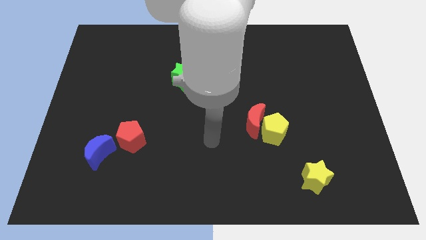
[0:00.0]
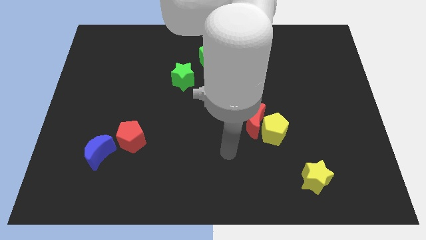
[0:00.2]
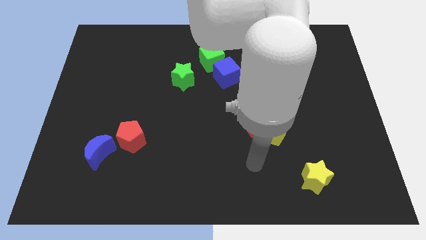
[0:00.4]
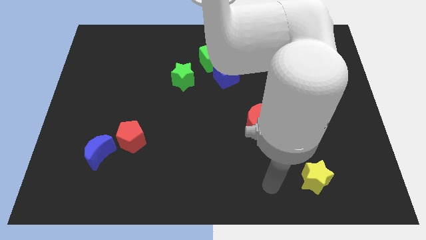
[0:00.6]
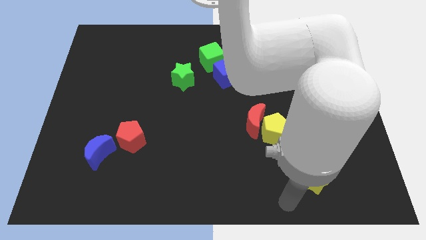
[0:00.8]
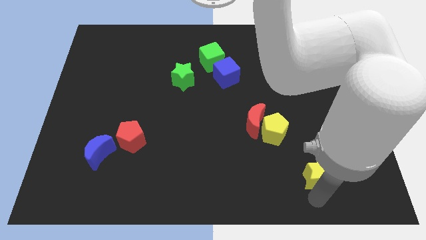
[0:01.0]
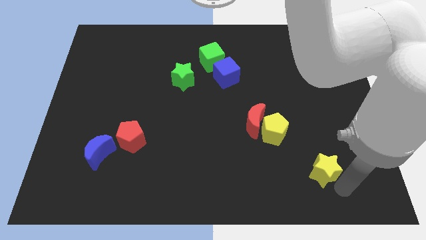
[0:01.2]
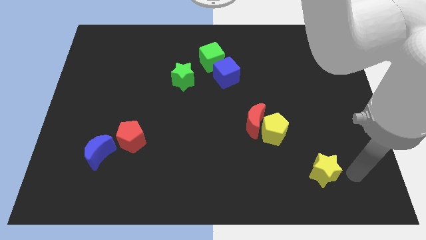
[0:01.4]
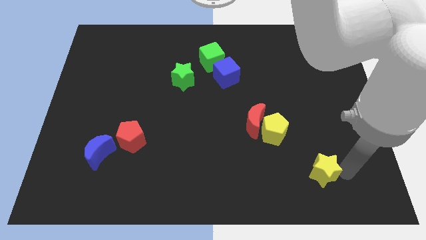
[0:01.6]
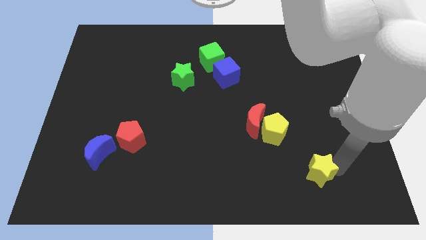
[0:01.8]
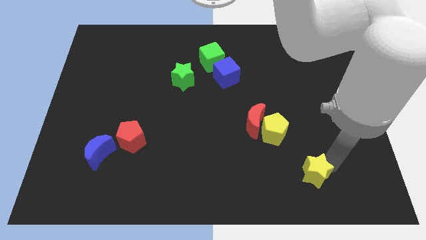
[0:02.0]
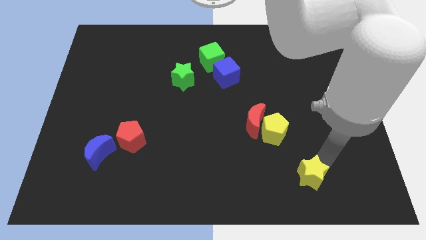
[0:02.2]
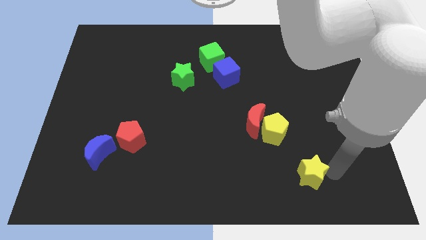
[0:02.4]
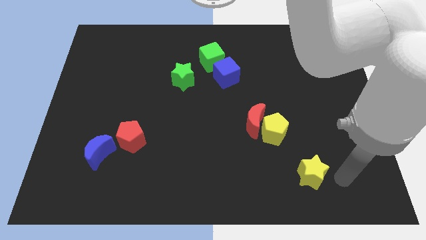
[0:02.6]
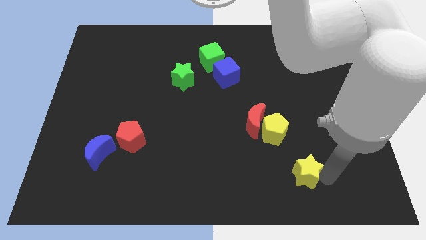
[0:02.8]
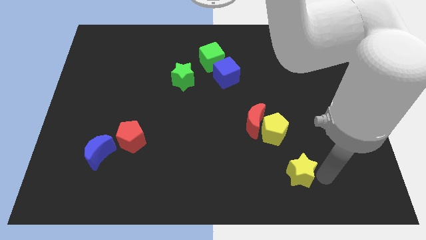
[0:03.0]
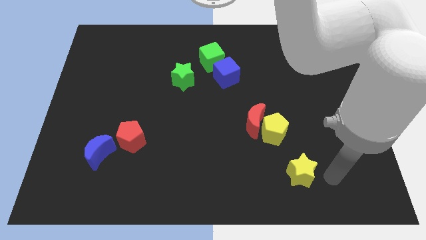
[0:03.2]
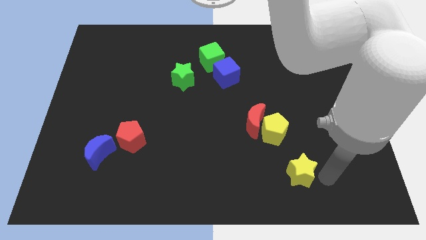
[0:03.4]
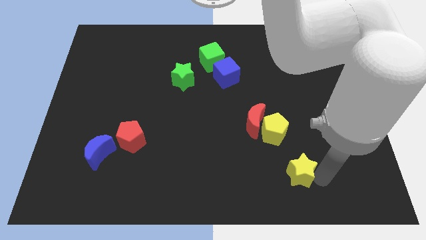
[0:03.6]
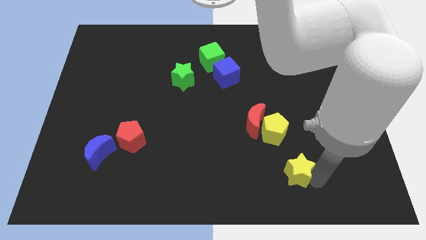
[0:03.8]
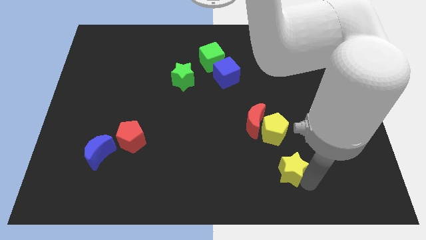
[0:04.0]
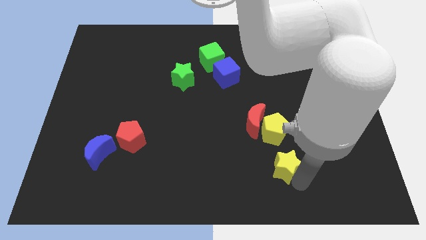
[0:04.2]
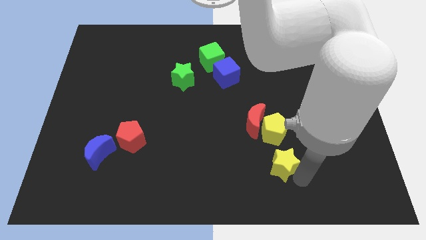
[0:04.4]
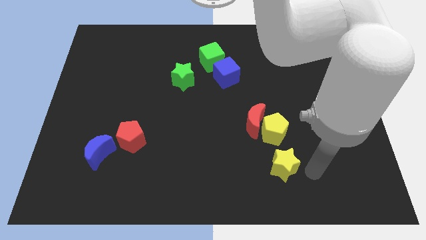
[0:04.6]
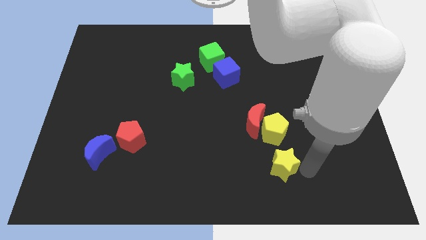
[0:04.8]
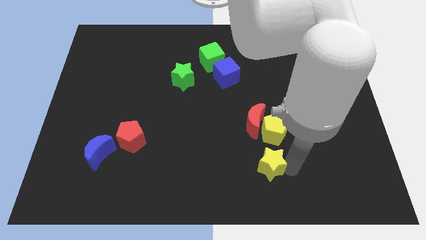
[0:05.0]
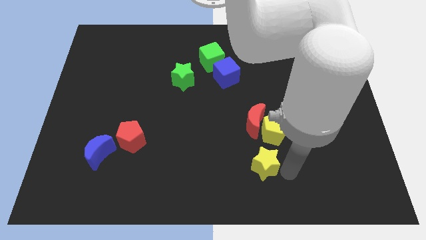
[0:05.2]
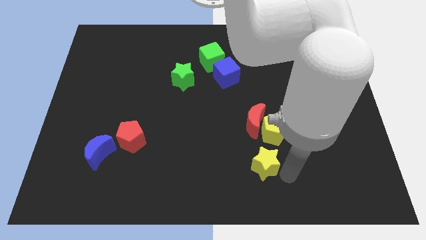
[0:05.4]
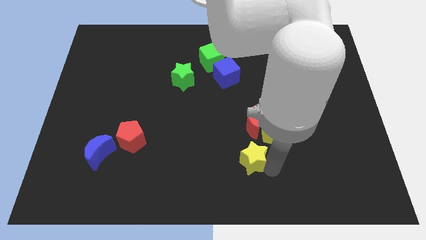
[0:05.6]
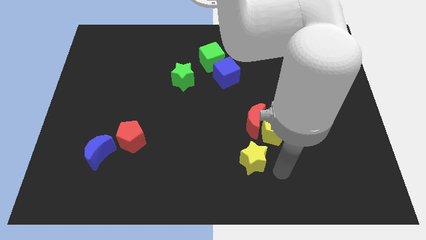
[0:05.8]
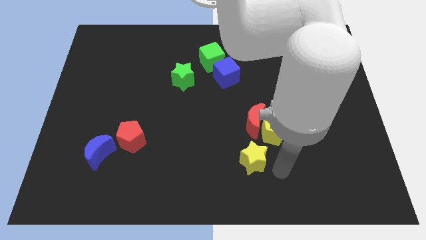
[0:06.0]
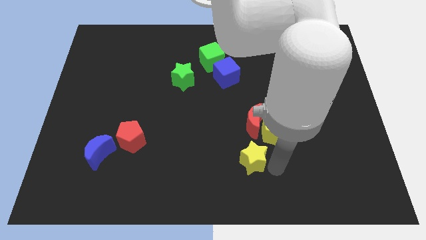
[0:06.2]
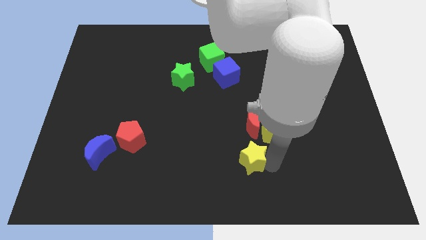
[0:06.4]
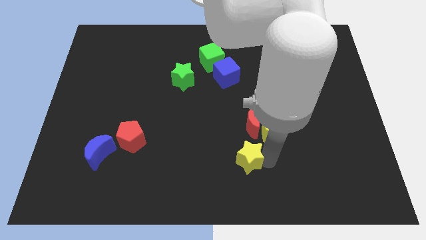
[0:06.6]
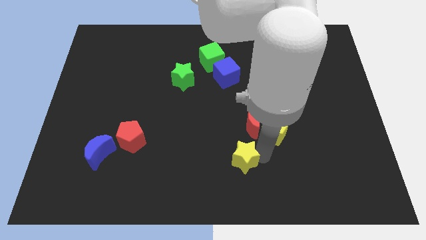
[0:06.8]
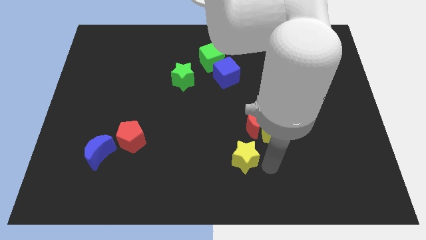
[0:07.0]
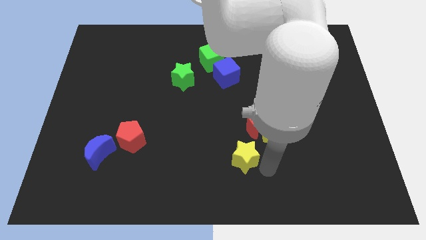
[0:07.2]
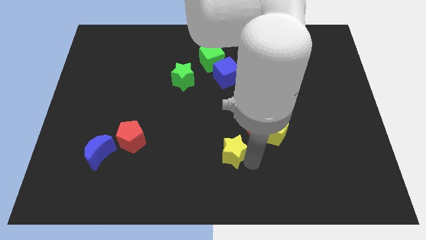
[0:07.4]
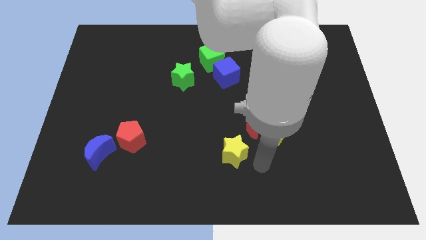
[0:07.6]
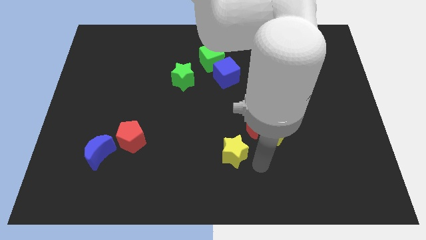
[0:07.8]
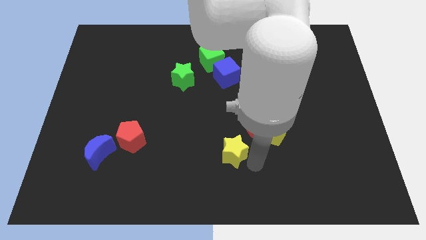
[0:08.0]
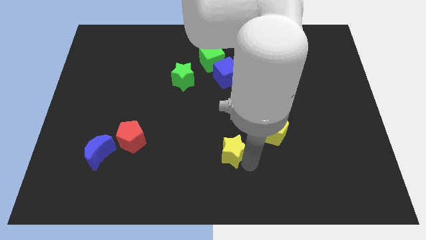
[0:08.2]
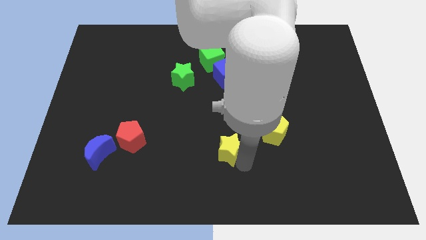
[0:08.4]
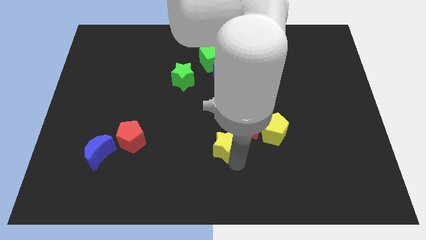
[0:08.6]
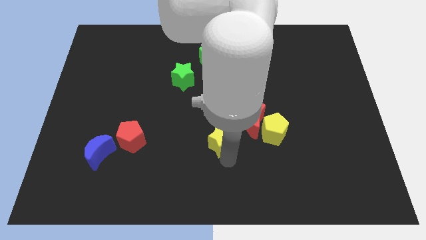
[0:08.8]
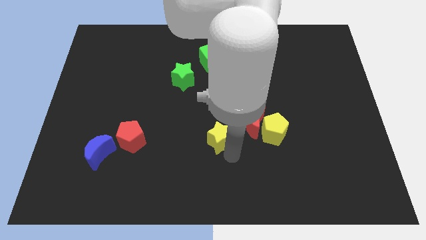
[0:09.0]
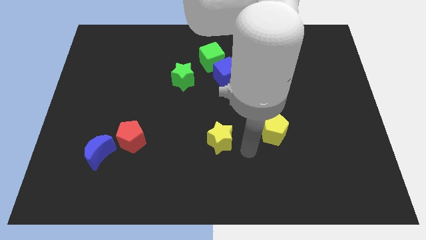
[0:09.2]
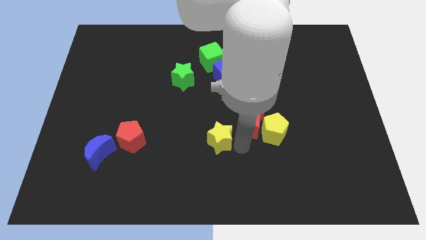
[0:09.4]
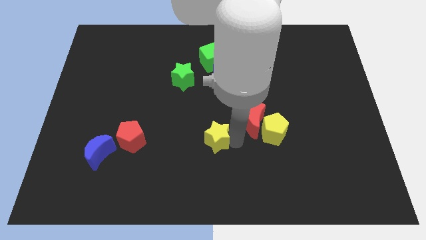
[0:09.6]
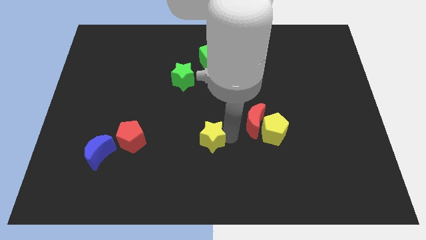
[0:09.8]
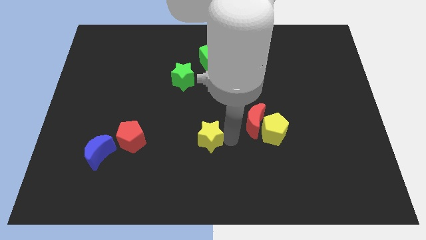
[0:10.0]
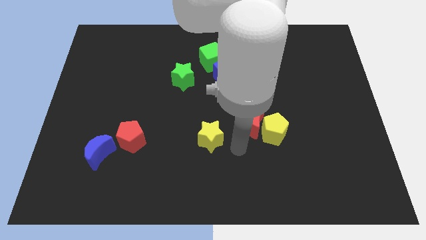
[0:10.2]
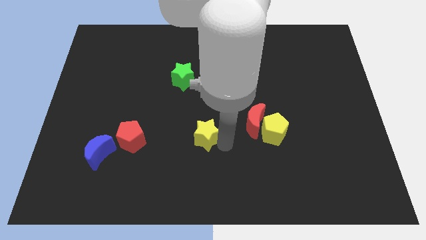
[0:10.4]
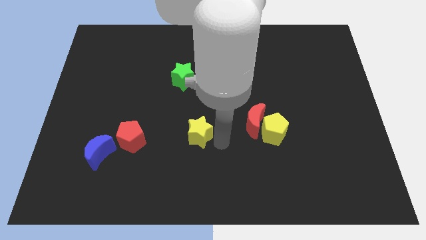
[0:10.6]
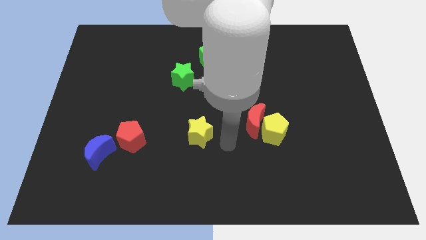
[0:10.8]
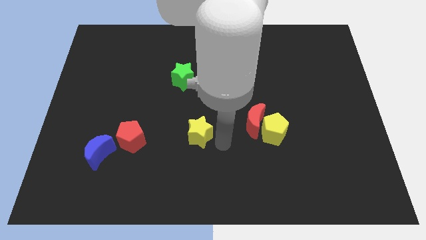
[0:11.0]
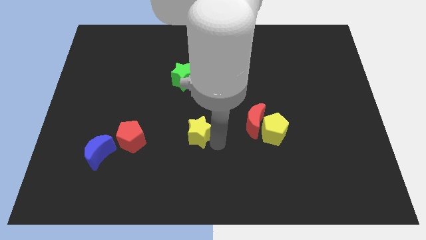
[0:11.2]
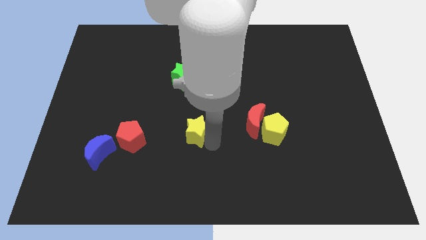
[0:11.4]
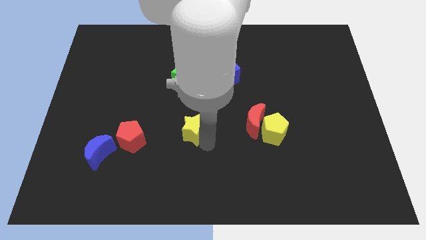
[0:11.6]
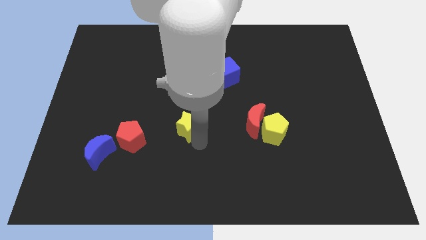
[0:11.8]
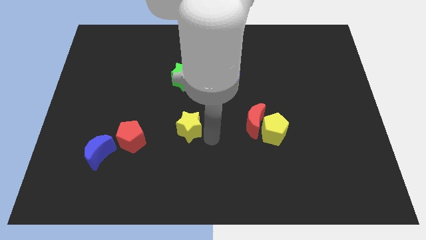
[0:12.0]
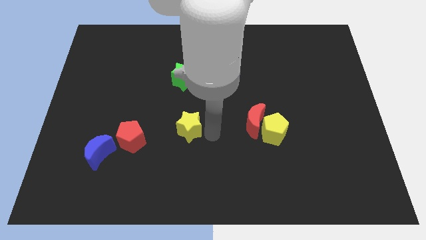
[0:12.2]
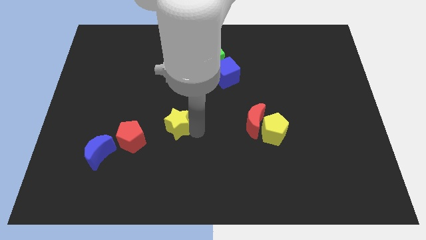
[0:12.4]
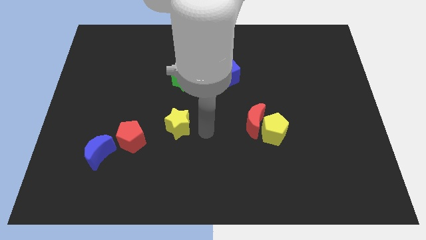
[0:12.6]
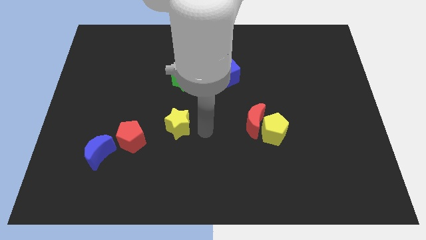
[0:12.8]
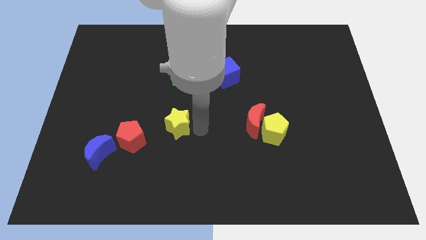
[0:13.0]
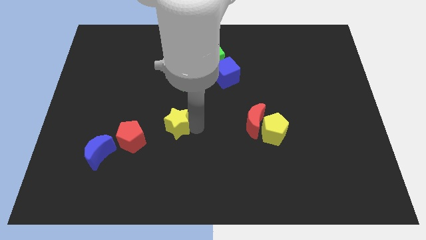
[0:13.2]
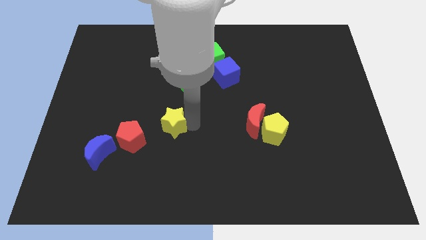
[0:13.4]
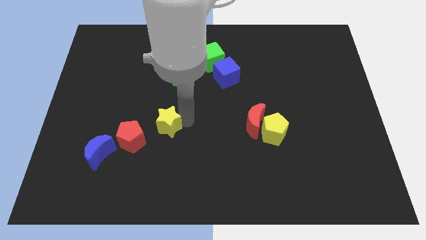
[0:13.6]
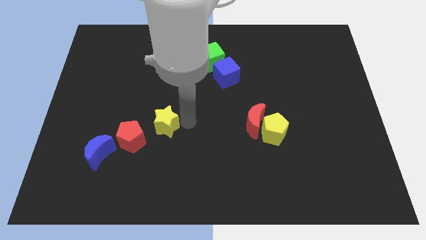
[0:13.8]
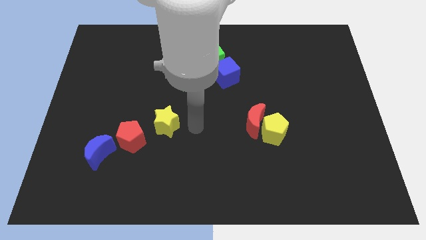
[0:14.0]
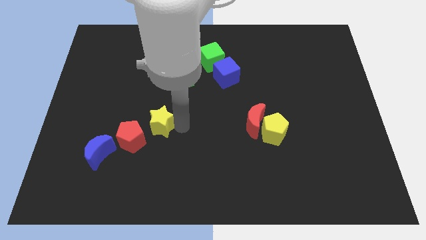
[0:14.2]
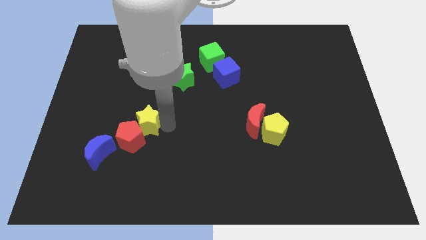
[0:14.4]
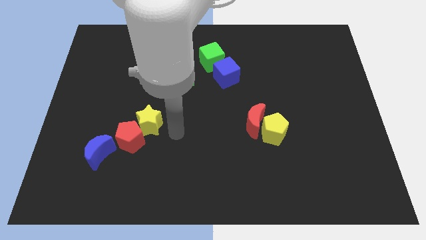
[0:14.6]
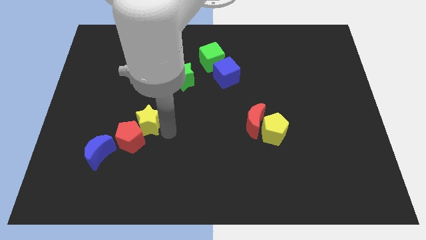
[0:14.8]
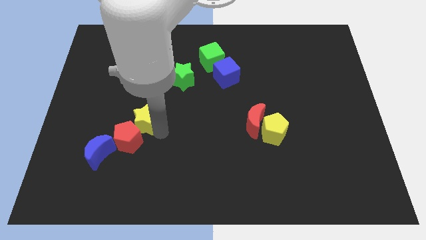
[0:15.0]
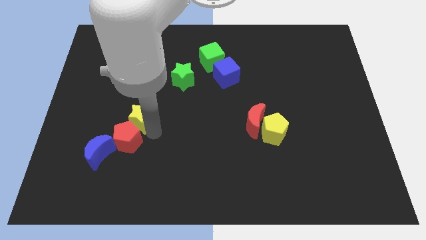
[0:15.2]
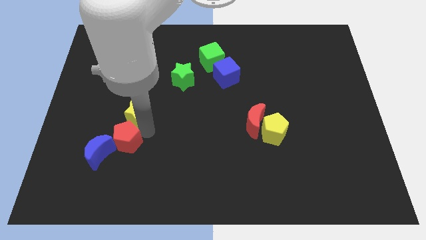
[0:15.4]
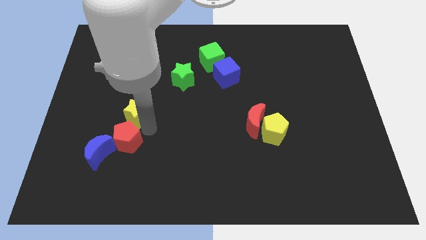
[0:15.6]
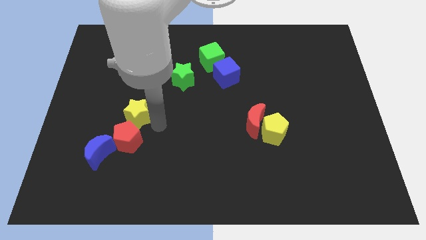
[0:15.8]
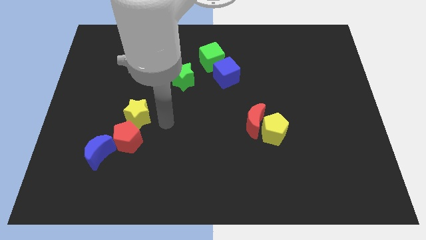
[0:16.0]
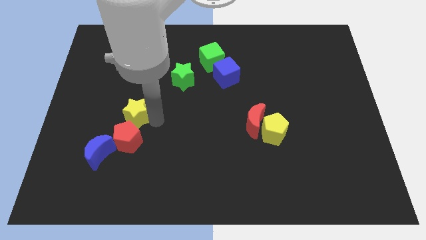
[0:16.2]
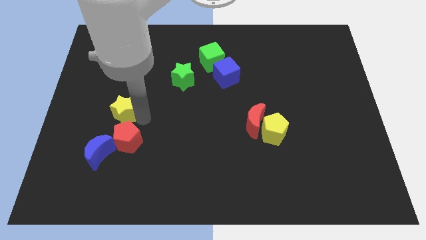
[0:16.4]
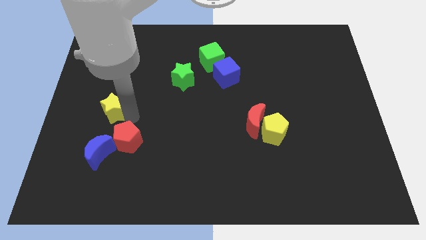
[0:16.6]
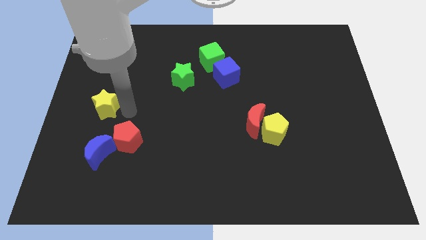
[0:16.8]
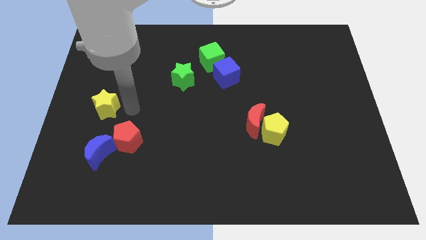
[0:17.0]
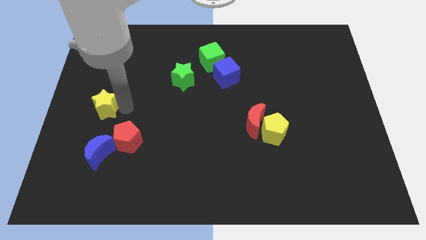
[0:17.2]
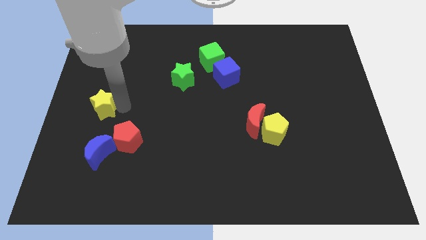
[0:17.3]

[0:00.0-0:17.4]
put the yellow star to the center left
